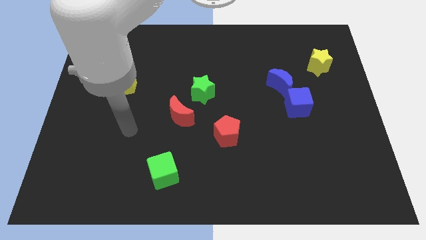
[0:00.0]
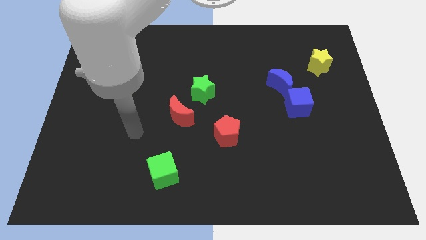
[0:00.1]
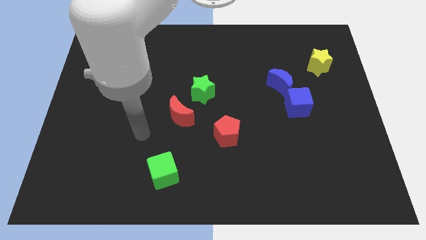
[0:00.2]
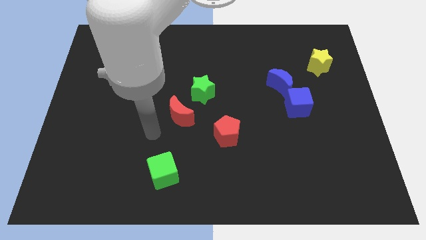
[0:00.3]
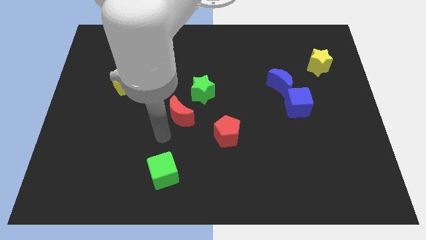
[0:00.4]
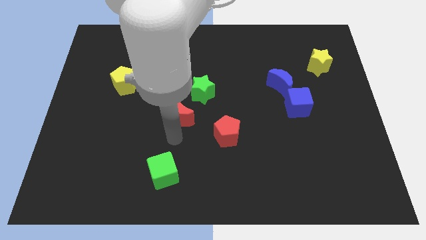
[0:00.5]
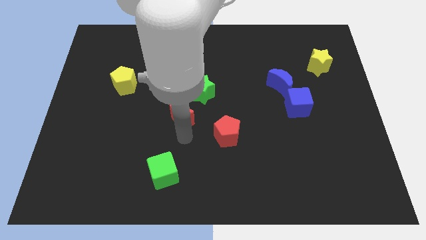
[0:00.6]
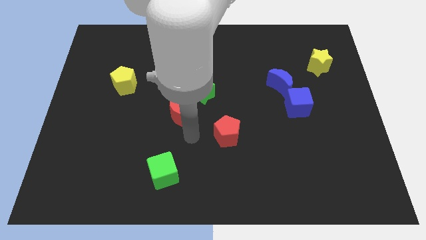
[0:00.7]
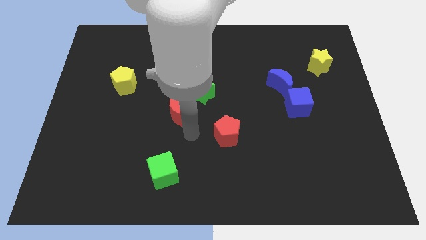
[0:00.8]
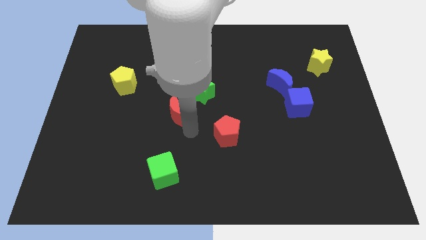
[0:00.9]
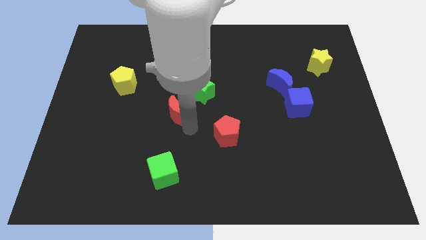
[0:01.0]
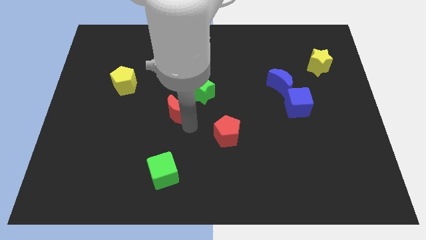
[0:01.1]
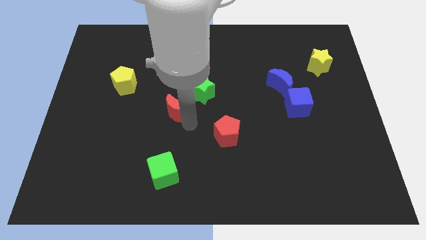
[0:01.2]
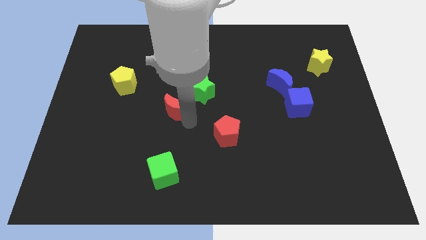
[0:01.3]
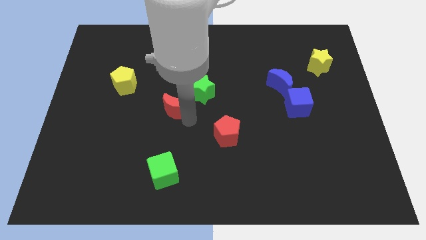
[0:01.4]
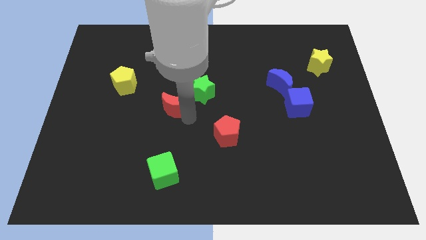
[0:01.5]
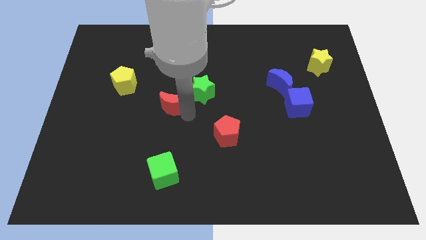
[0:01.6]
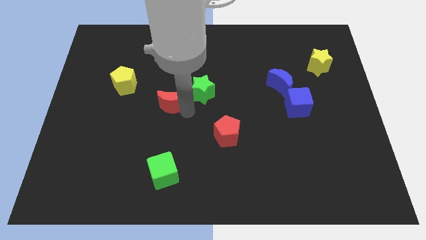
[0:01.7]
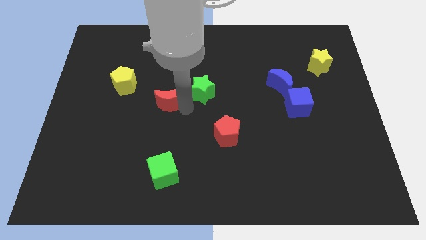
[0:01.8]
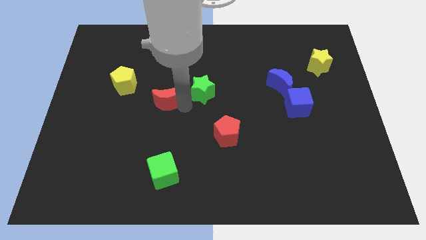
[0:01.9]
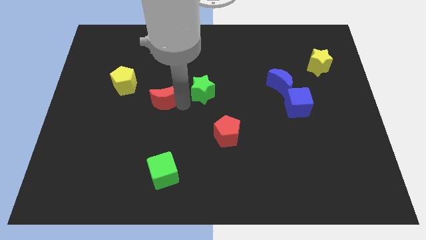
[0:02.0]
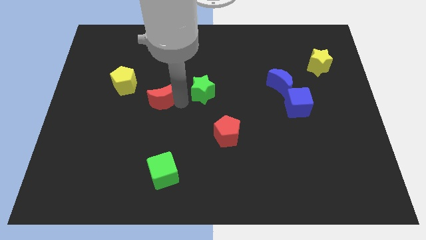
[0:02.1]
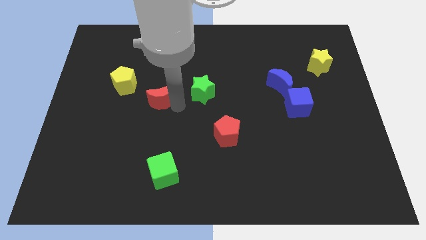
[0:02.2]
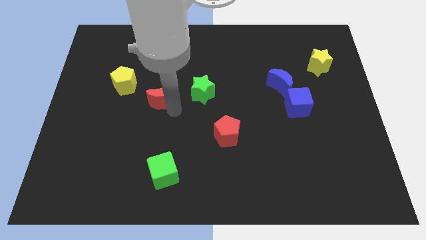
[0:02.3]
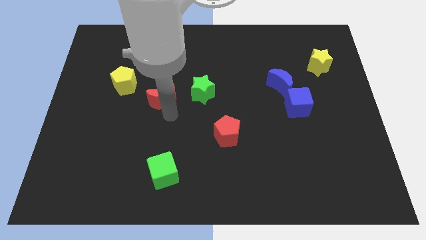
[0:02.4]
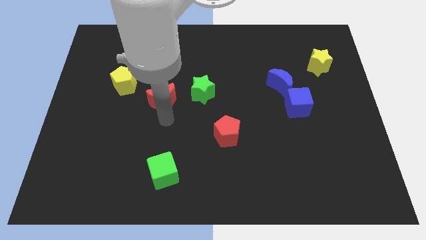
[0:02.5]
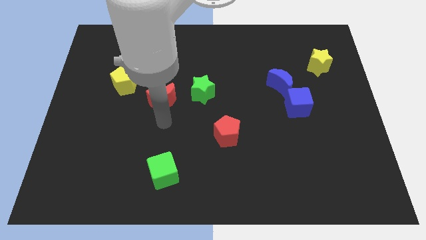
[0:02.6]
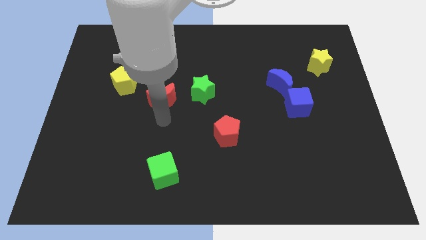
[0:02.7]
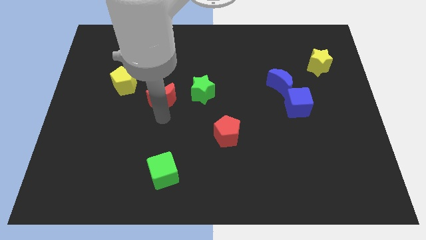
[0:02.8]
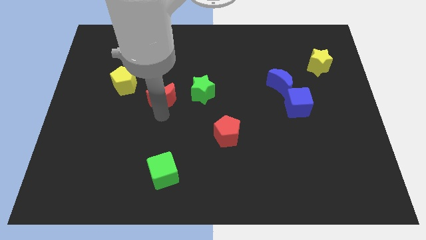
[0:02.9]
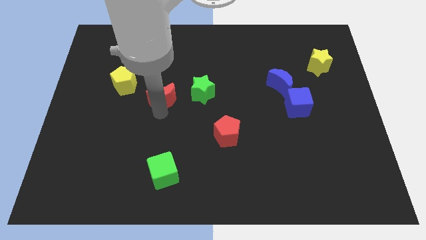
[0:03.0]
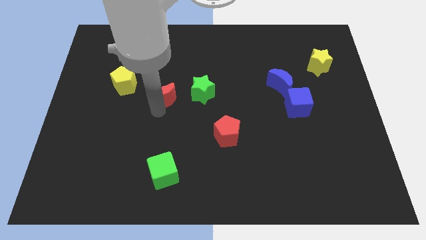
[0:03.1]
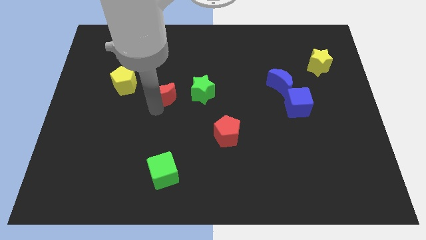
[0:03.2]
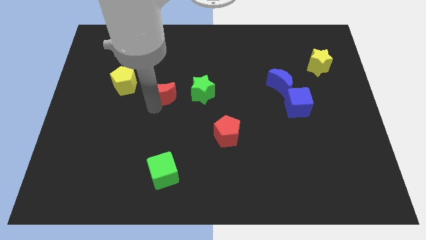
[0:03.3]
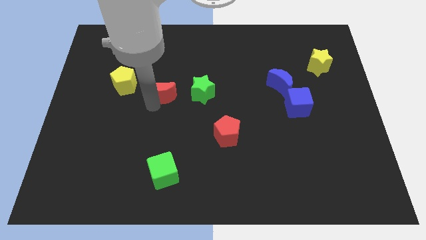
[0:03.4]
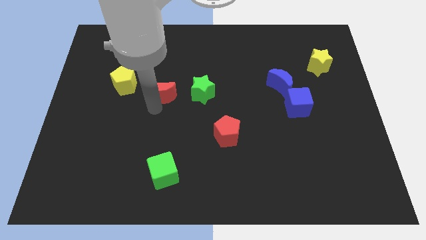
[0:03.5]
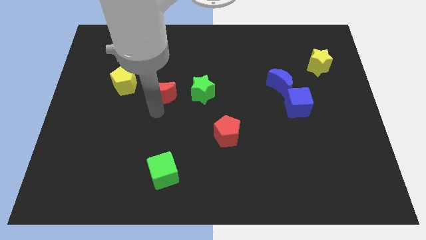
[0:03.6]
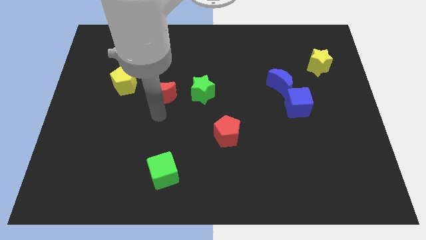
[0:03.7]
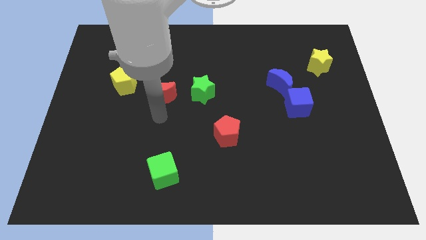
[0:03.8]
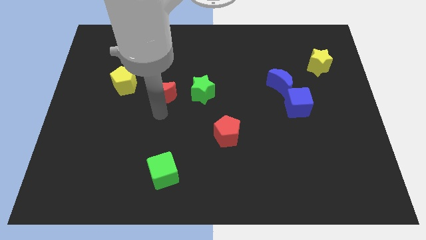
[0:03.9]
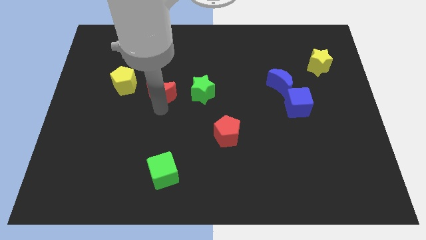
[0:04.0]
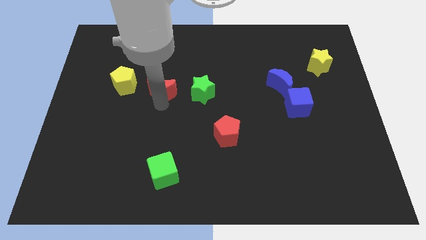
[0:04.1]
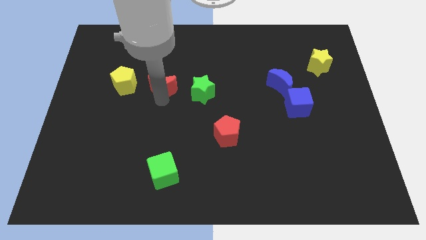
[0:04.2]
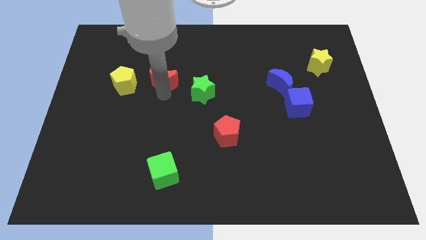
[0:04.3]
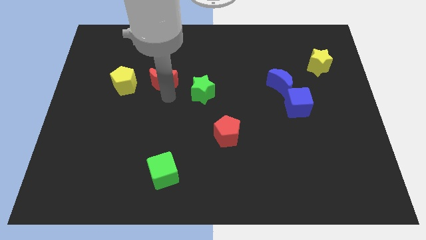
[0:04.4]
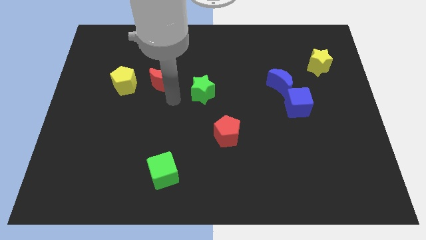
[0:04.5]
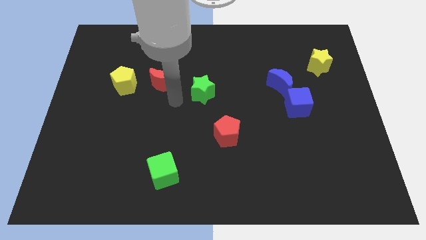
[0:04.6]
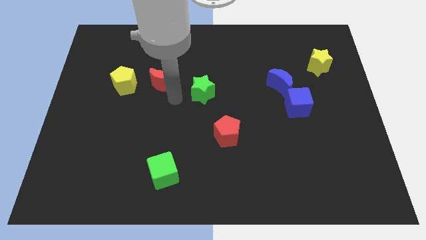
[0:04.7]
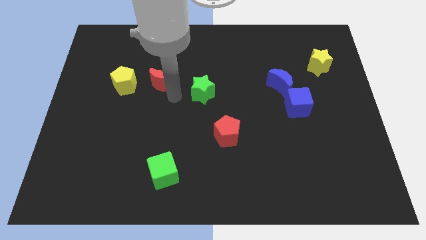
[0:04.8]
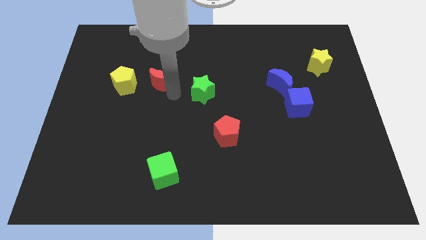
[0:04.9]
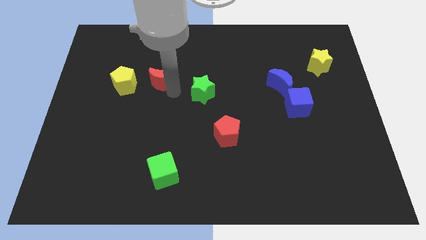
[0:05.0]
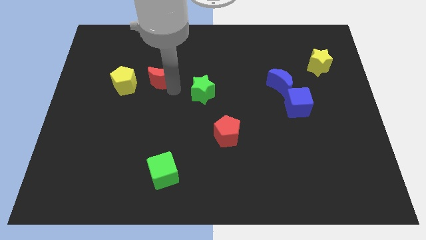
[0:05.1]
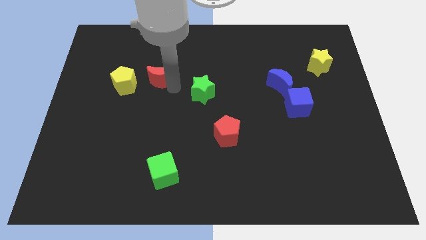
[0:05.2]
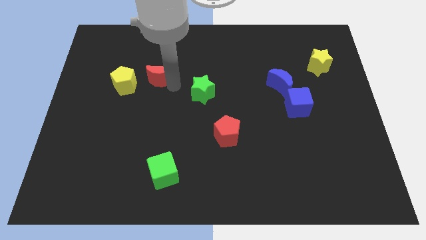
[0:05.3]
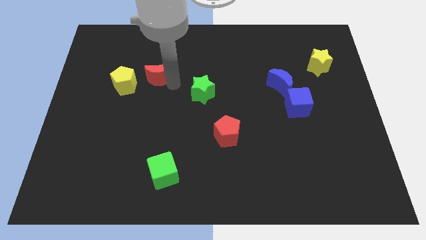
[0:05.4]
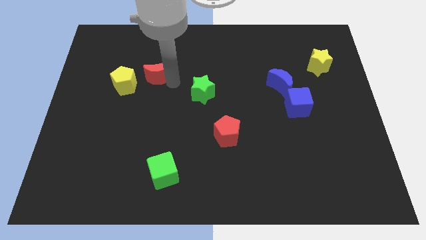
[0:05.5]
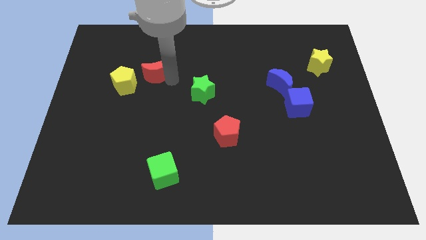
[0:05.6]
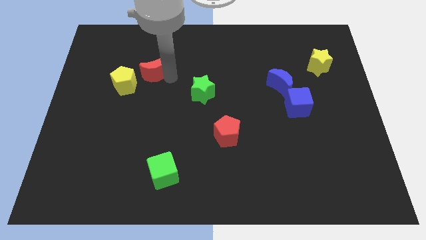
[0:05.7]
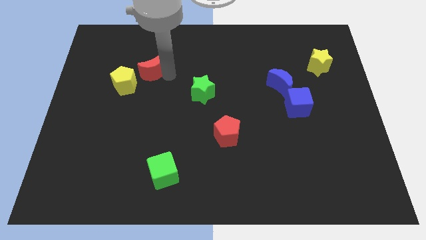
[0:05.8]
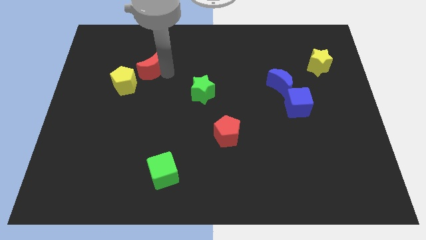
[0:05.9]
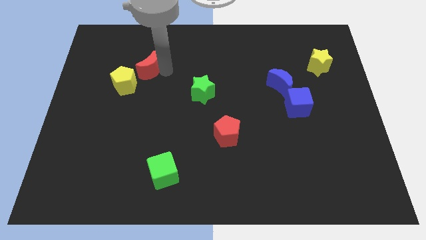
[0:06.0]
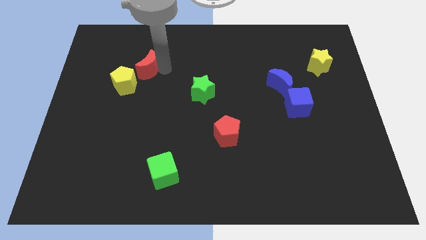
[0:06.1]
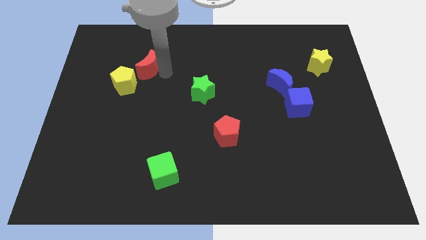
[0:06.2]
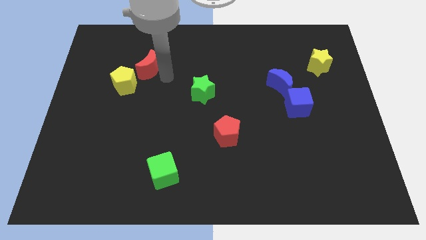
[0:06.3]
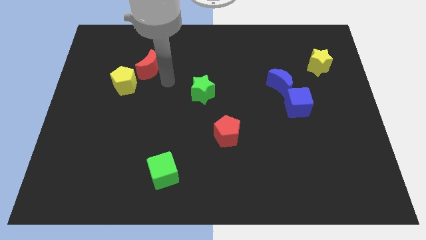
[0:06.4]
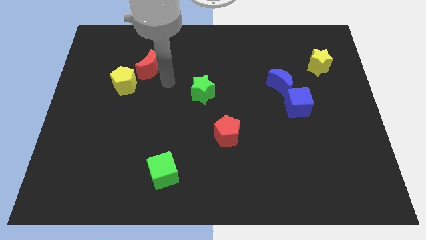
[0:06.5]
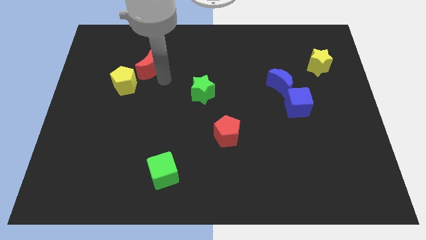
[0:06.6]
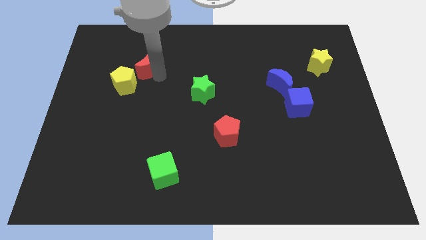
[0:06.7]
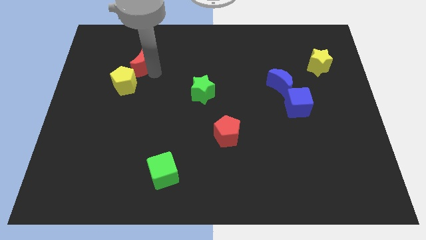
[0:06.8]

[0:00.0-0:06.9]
put the red moon to the top of the yellow pentagon
